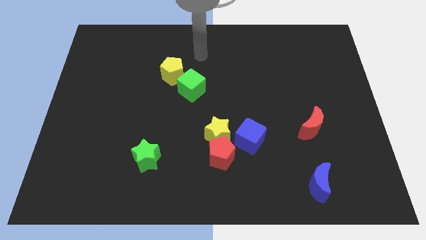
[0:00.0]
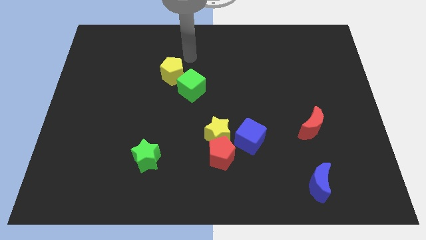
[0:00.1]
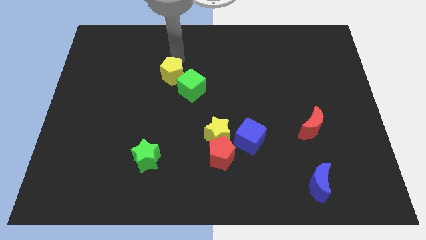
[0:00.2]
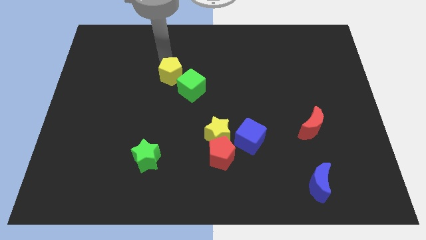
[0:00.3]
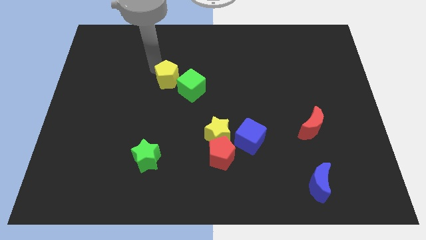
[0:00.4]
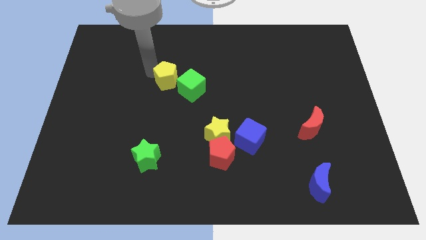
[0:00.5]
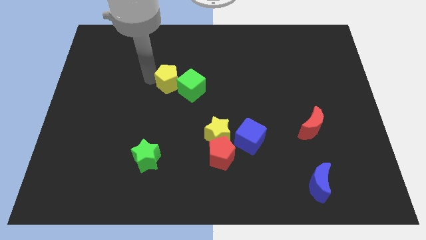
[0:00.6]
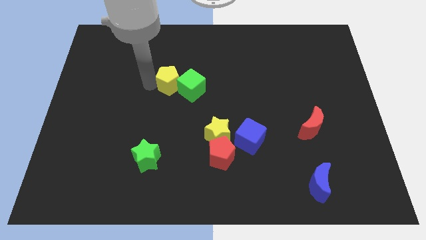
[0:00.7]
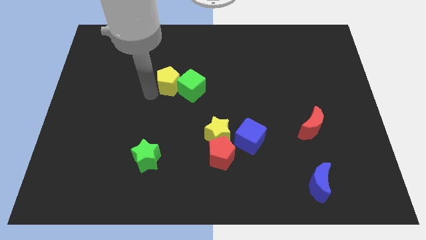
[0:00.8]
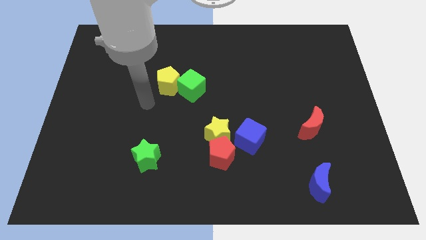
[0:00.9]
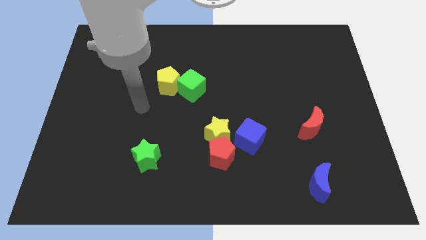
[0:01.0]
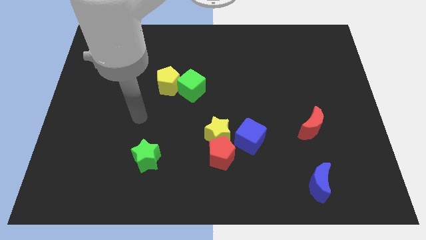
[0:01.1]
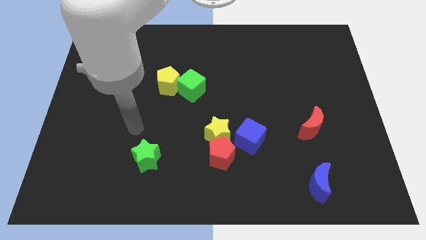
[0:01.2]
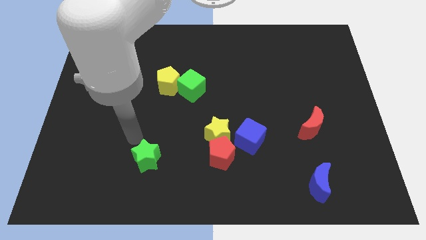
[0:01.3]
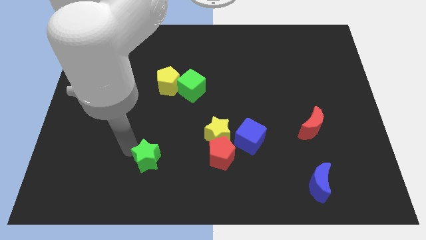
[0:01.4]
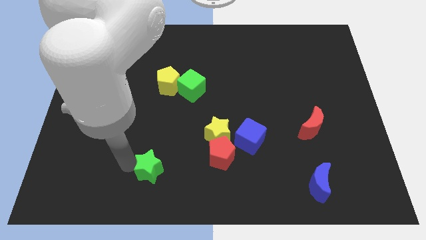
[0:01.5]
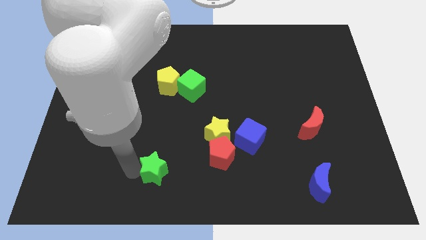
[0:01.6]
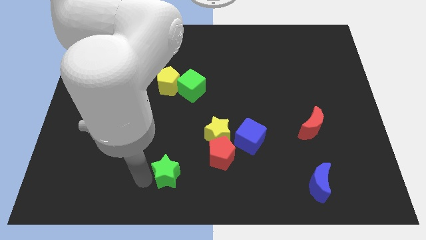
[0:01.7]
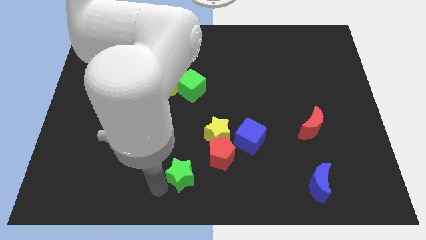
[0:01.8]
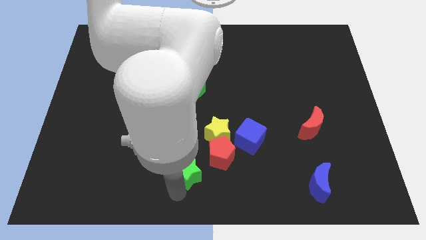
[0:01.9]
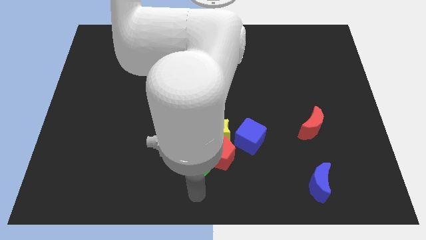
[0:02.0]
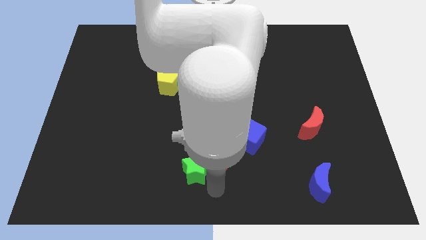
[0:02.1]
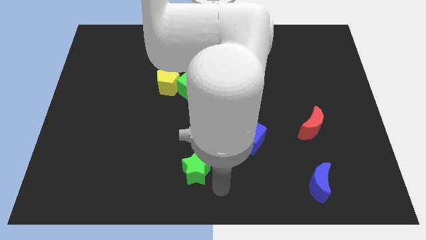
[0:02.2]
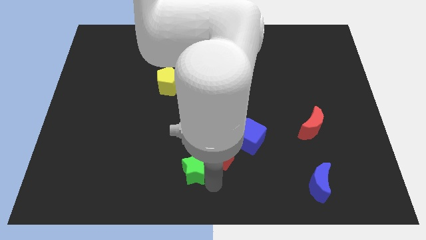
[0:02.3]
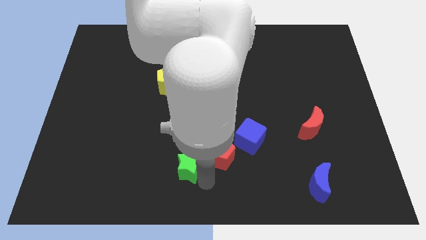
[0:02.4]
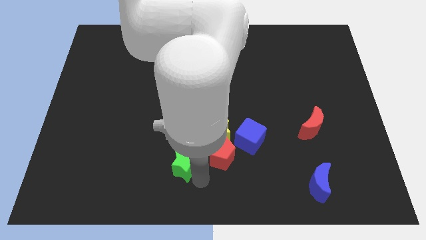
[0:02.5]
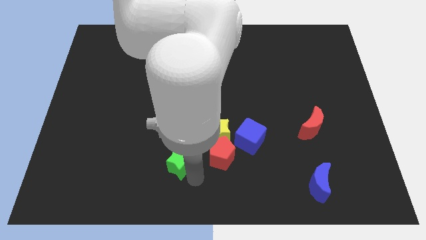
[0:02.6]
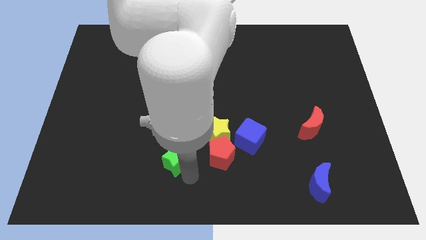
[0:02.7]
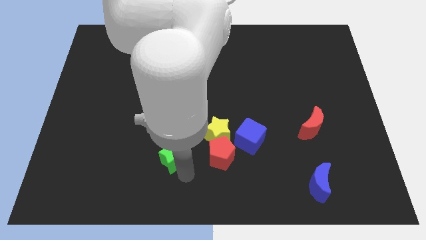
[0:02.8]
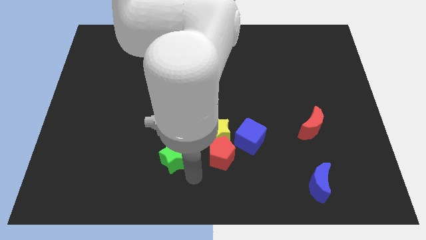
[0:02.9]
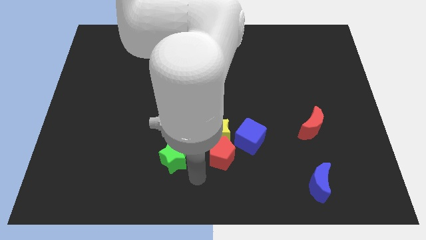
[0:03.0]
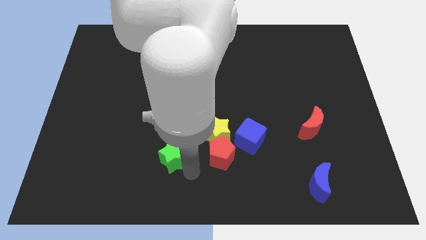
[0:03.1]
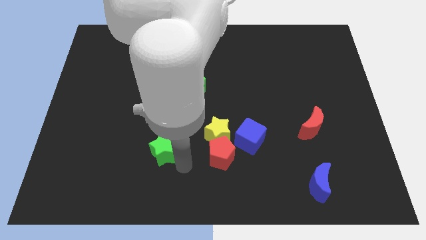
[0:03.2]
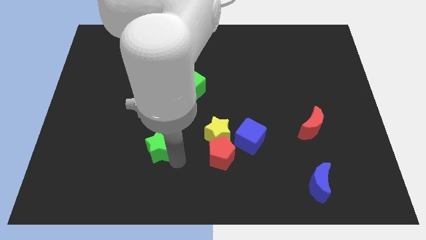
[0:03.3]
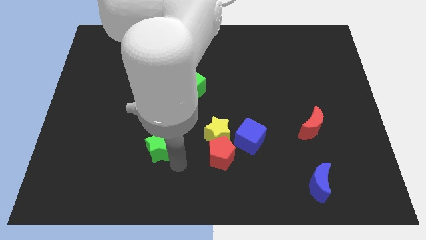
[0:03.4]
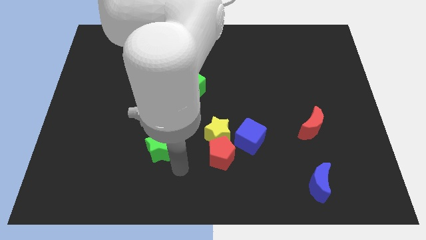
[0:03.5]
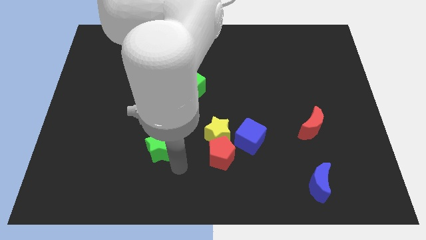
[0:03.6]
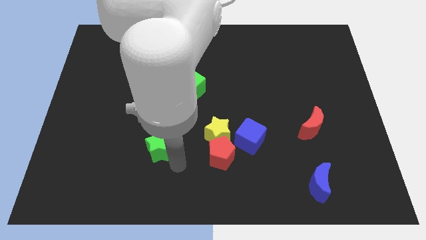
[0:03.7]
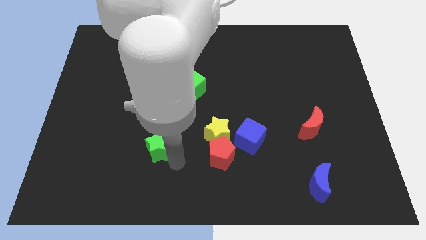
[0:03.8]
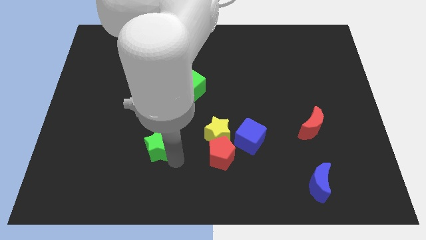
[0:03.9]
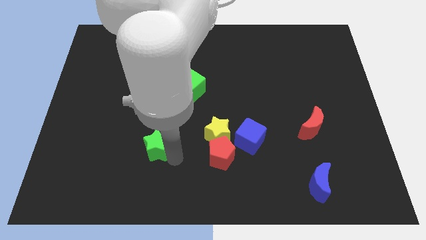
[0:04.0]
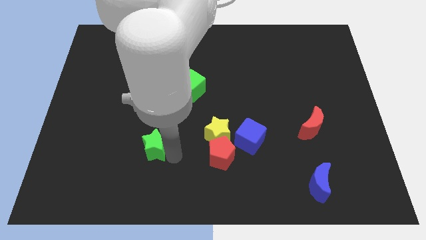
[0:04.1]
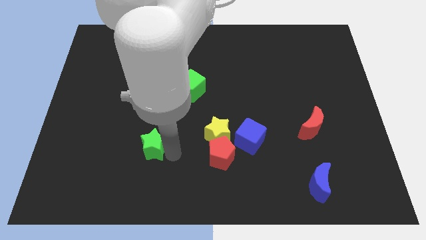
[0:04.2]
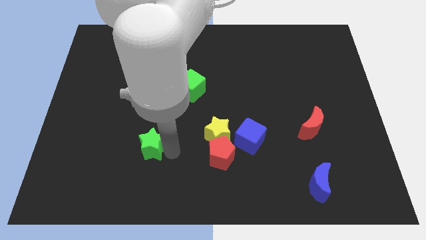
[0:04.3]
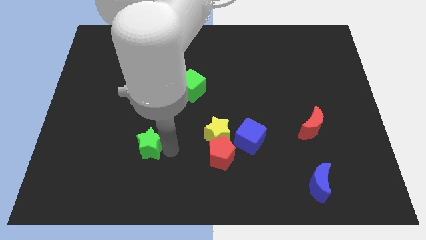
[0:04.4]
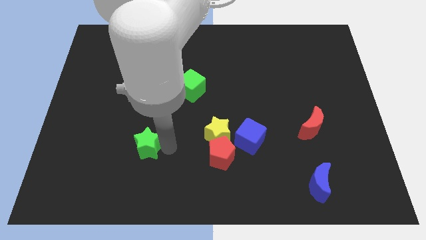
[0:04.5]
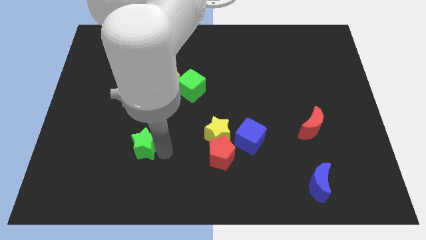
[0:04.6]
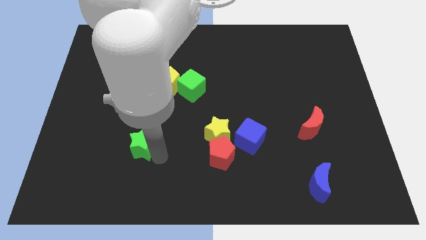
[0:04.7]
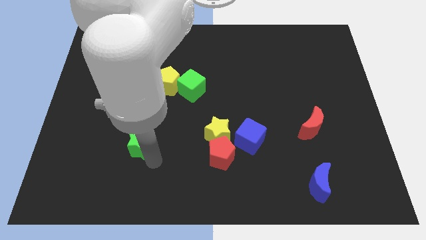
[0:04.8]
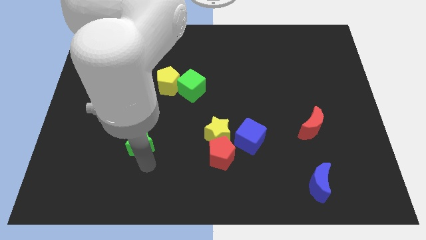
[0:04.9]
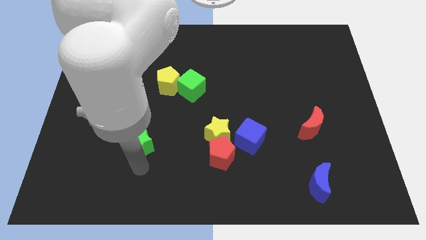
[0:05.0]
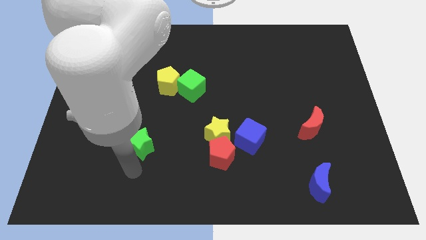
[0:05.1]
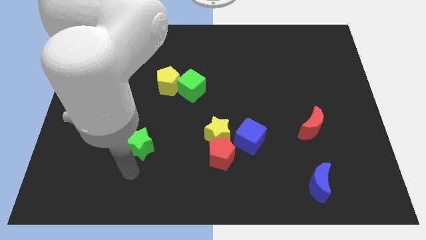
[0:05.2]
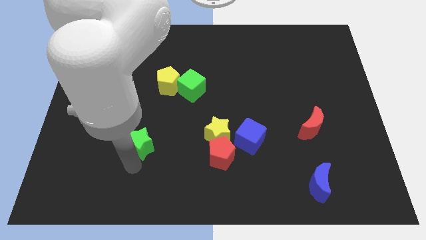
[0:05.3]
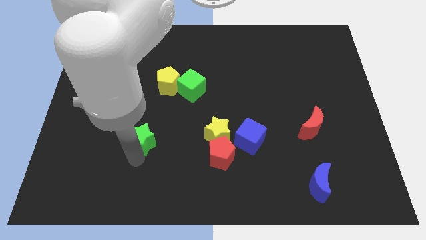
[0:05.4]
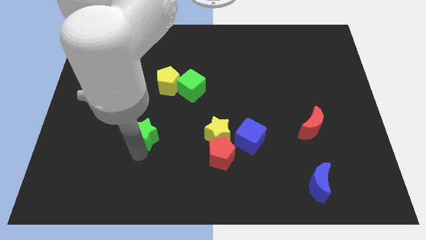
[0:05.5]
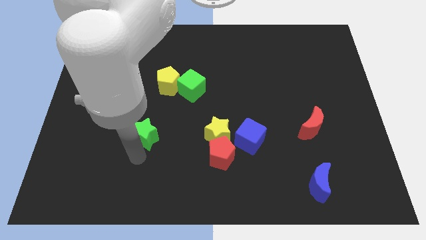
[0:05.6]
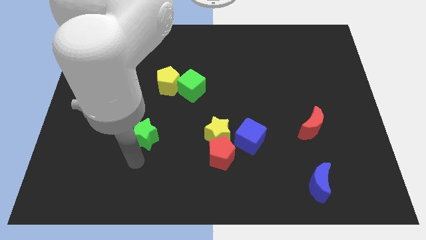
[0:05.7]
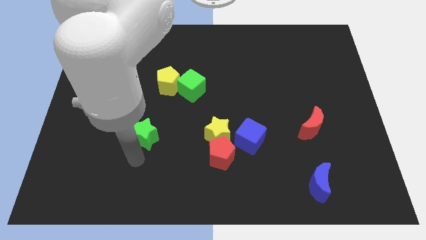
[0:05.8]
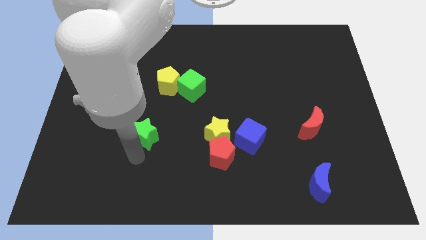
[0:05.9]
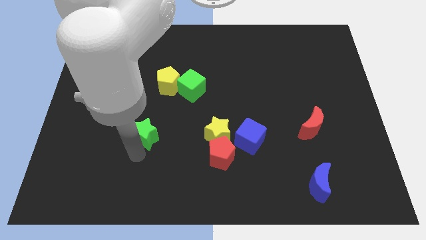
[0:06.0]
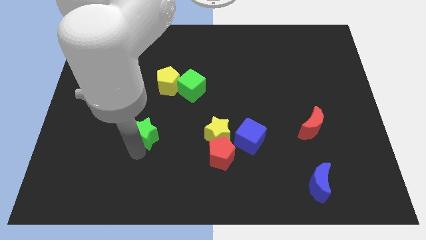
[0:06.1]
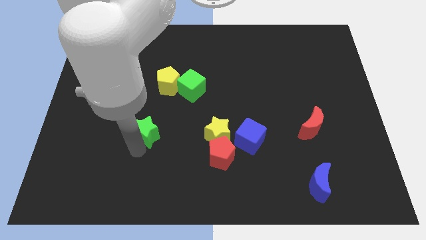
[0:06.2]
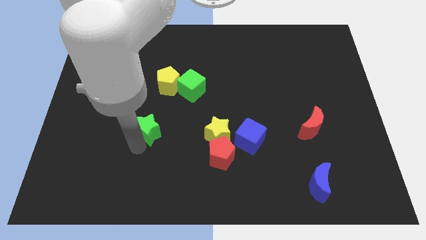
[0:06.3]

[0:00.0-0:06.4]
move the green star up a little

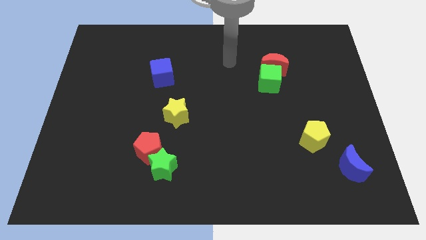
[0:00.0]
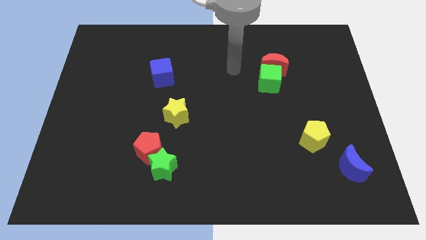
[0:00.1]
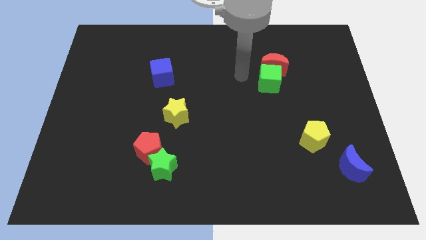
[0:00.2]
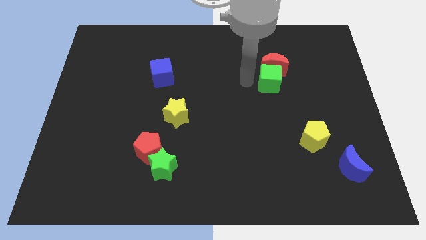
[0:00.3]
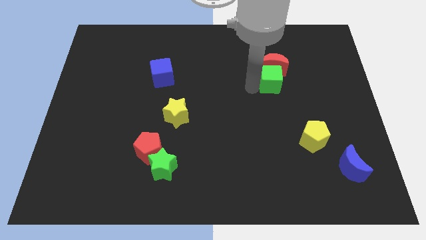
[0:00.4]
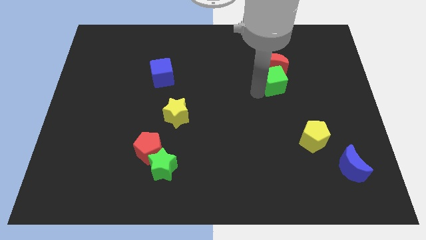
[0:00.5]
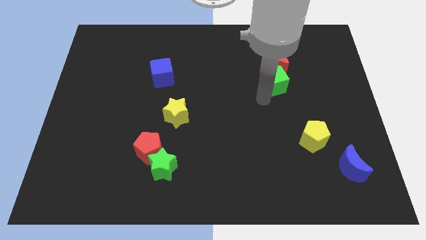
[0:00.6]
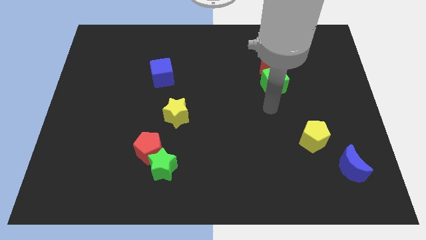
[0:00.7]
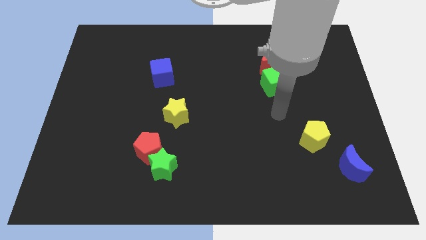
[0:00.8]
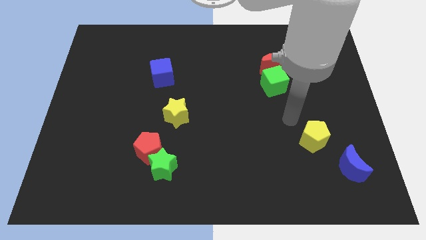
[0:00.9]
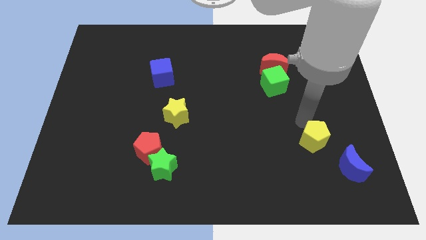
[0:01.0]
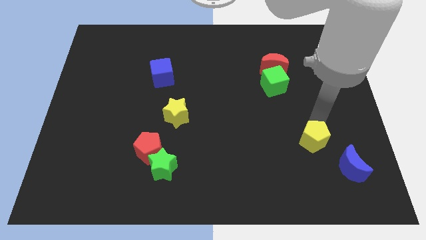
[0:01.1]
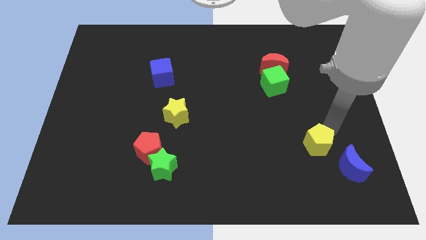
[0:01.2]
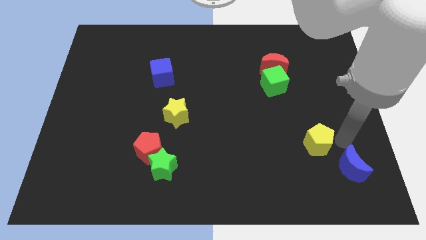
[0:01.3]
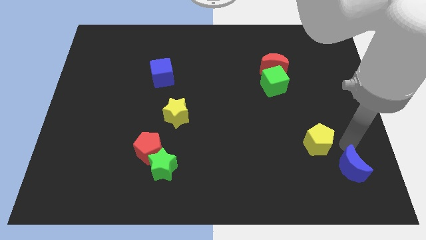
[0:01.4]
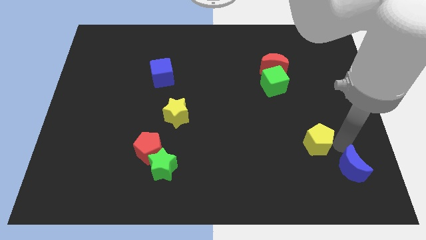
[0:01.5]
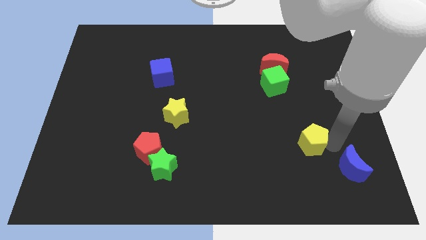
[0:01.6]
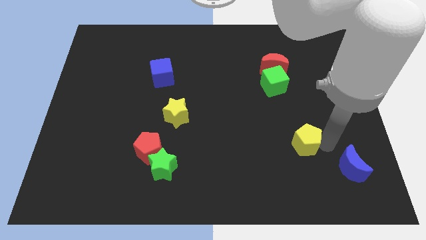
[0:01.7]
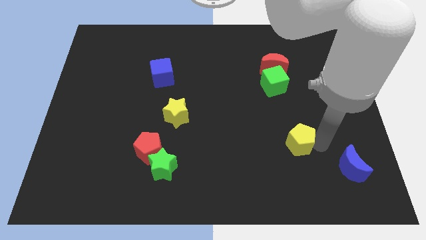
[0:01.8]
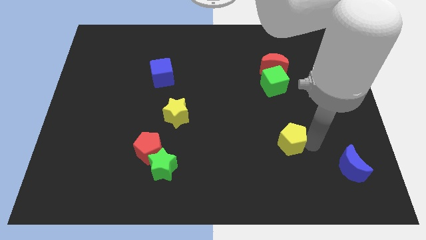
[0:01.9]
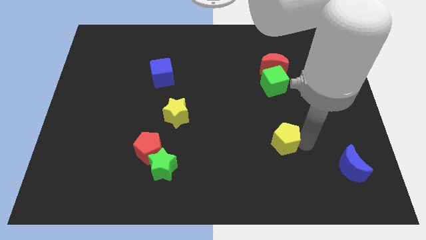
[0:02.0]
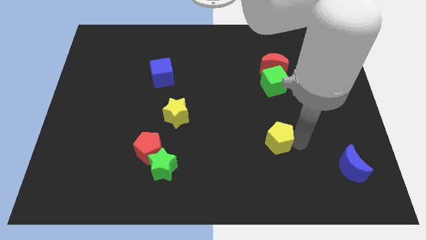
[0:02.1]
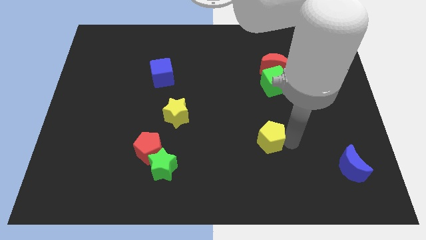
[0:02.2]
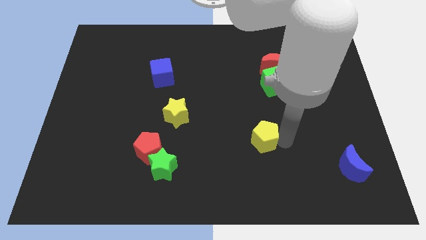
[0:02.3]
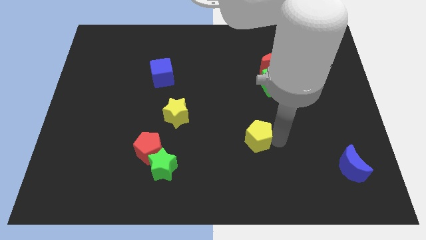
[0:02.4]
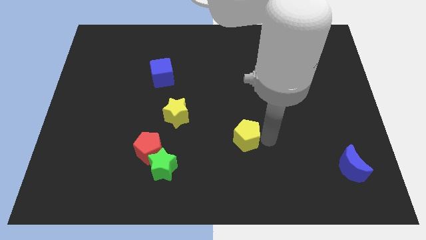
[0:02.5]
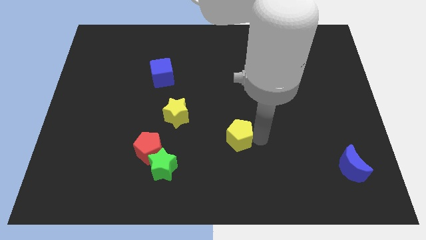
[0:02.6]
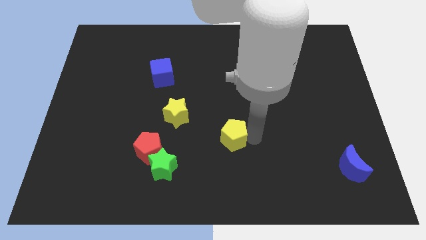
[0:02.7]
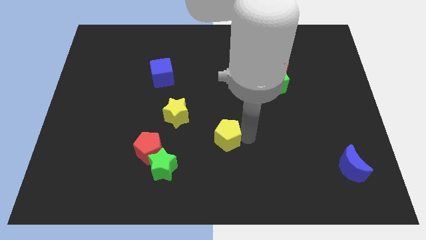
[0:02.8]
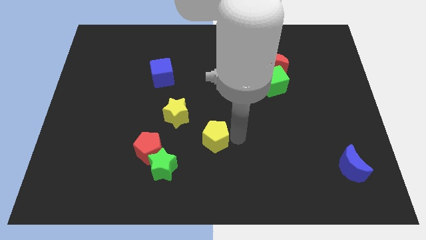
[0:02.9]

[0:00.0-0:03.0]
push the yellow pentagon to the left
